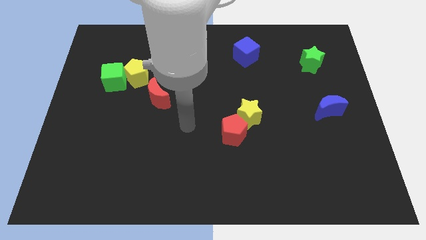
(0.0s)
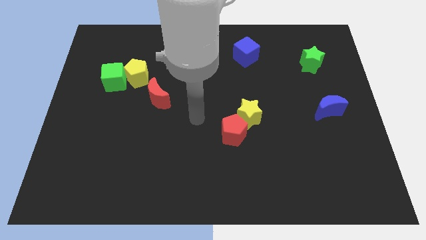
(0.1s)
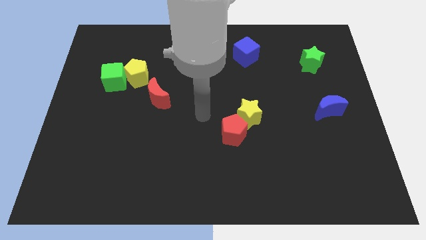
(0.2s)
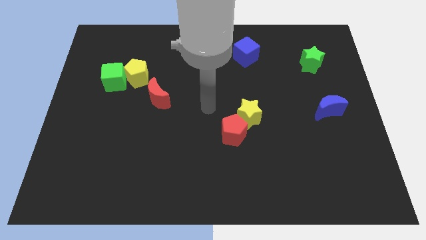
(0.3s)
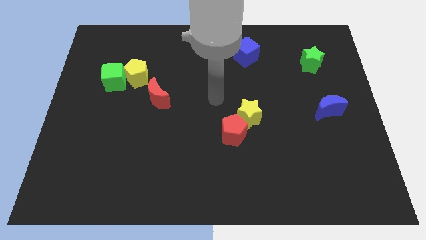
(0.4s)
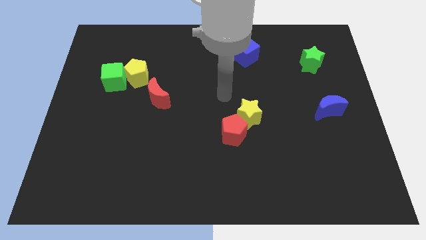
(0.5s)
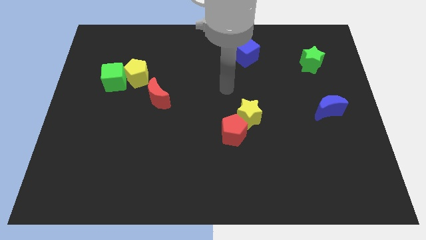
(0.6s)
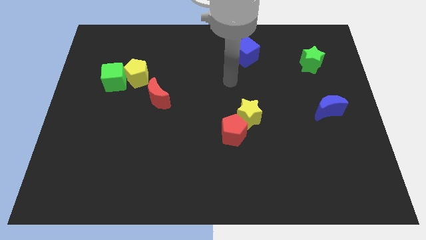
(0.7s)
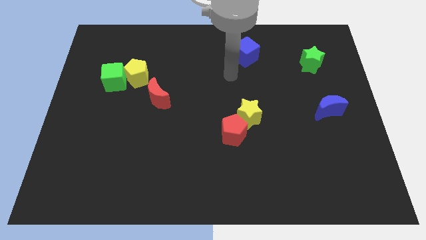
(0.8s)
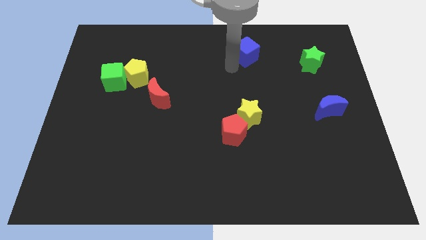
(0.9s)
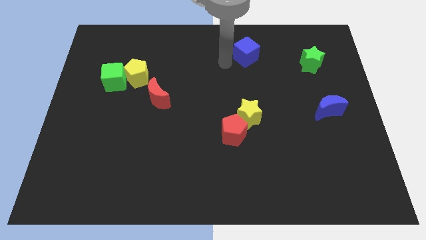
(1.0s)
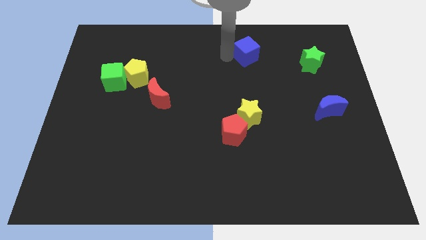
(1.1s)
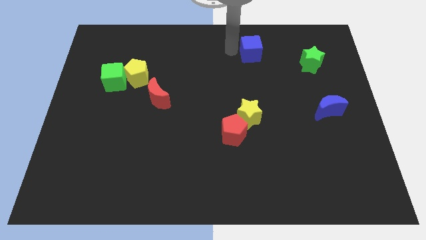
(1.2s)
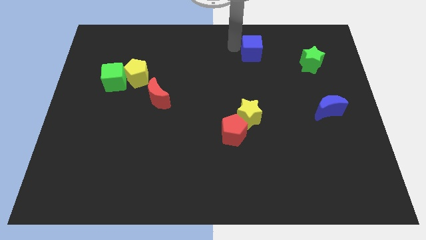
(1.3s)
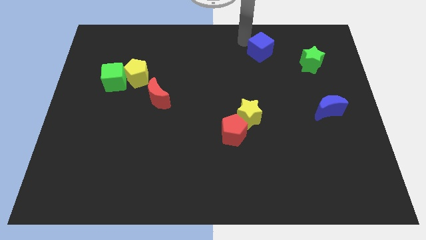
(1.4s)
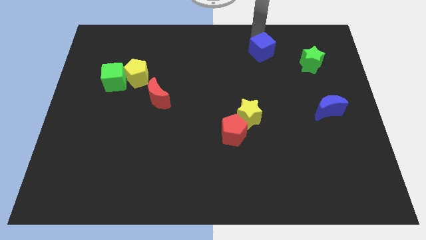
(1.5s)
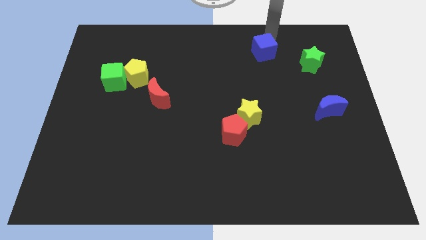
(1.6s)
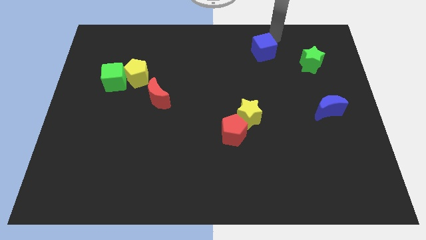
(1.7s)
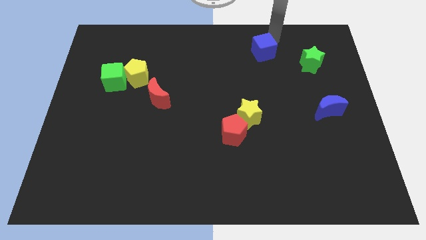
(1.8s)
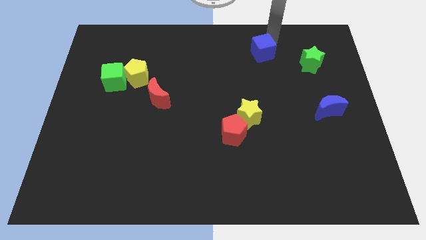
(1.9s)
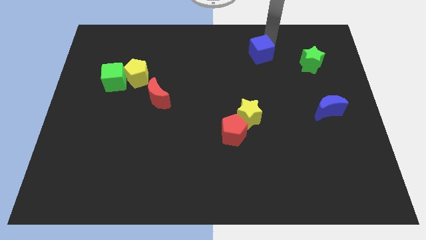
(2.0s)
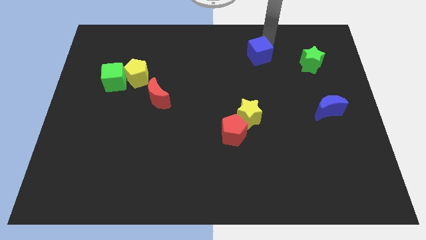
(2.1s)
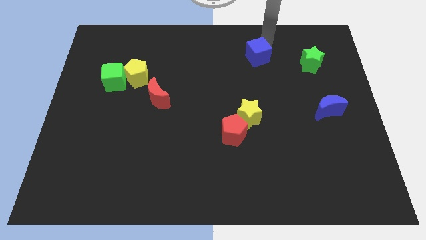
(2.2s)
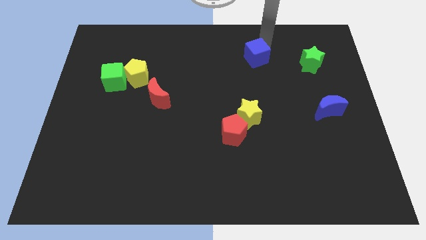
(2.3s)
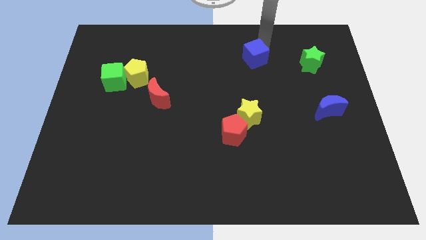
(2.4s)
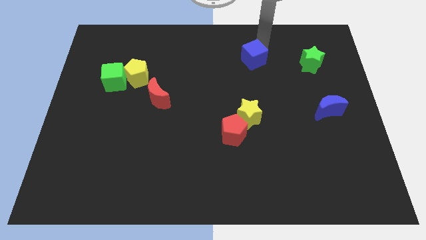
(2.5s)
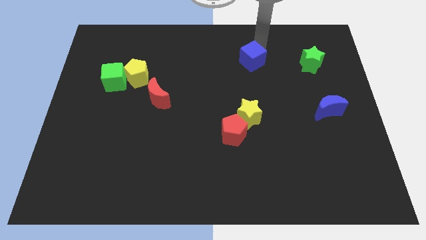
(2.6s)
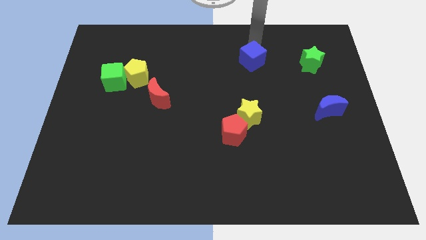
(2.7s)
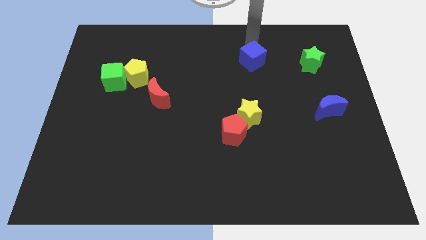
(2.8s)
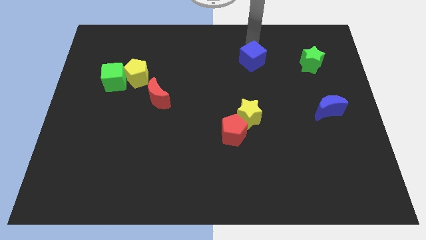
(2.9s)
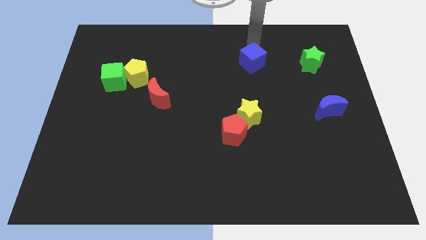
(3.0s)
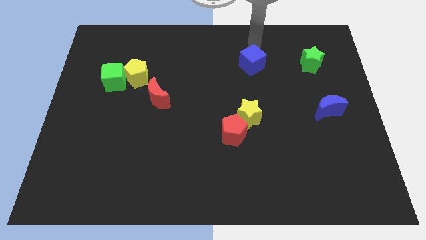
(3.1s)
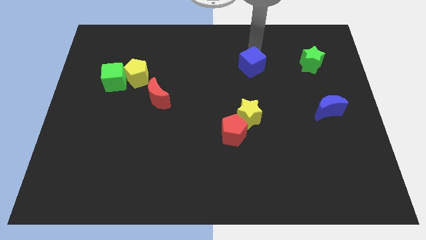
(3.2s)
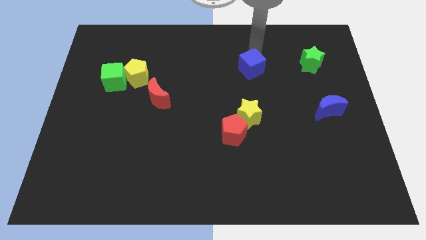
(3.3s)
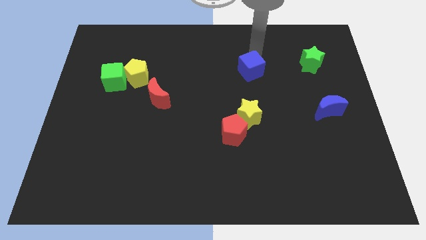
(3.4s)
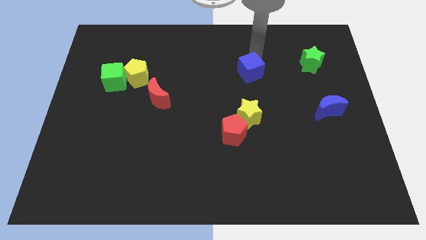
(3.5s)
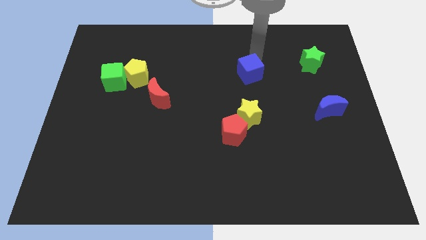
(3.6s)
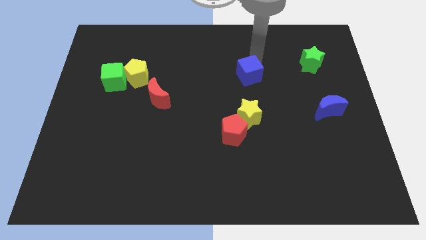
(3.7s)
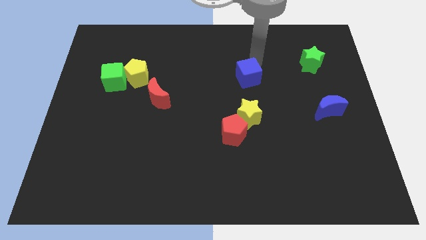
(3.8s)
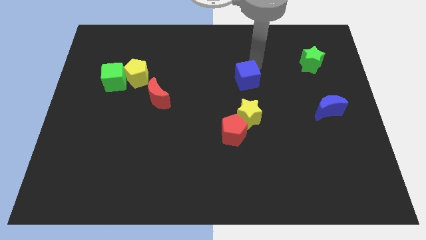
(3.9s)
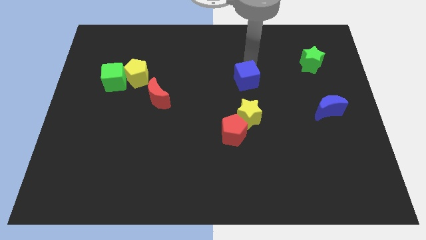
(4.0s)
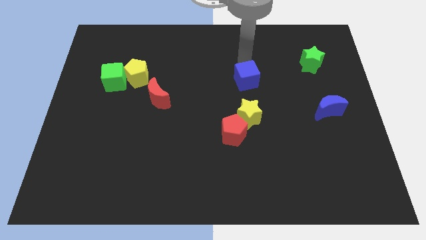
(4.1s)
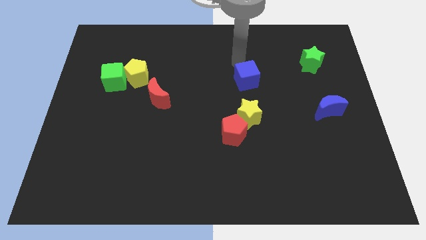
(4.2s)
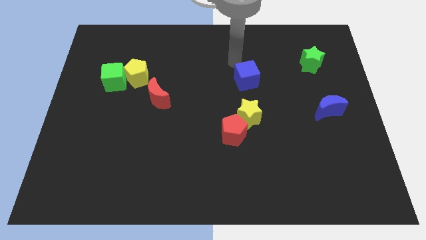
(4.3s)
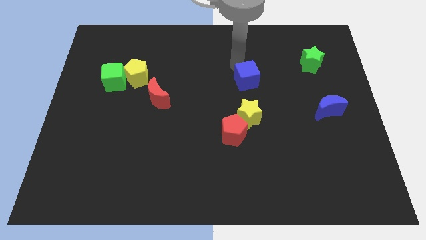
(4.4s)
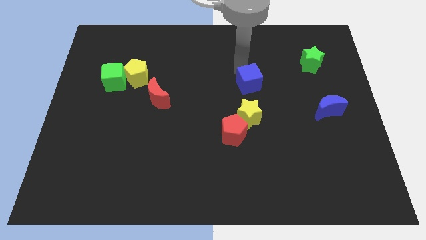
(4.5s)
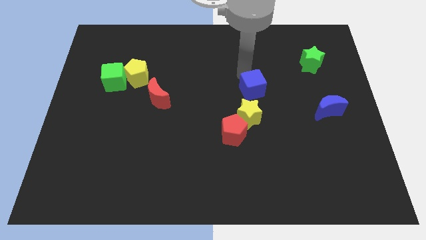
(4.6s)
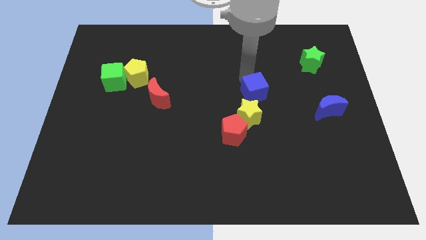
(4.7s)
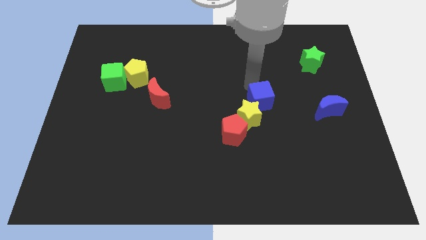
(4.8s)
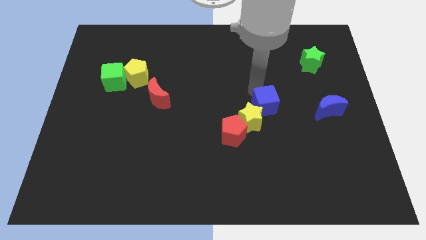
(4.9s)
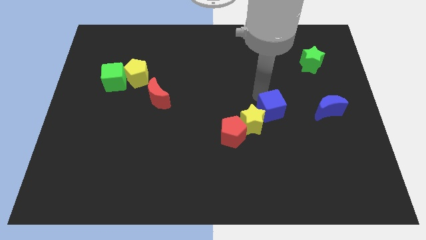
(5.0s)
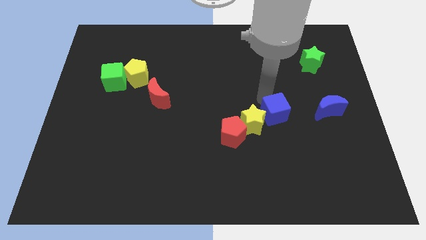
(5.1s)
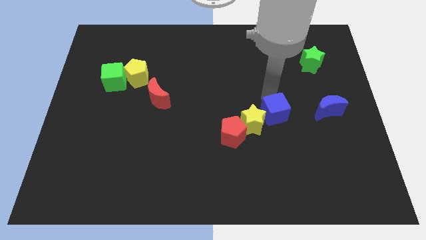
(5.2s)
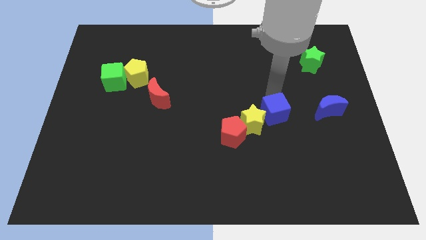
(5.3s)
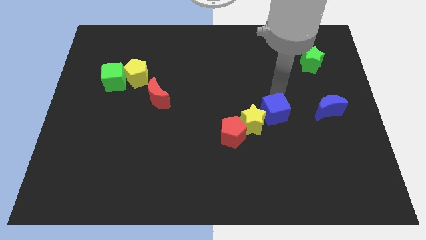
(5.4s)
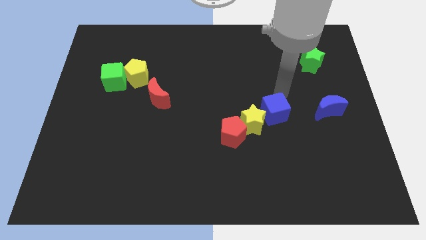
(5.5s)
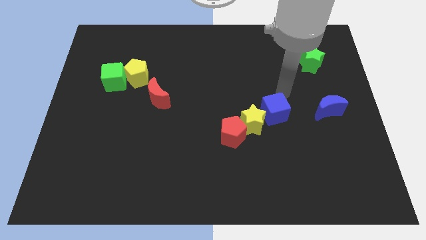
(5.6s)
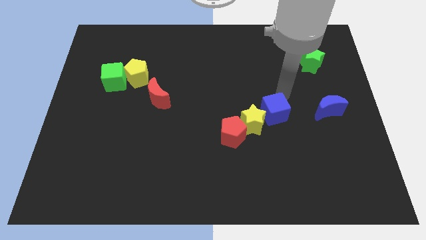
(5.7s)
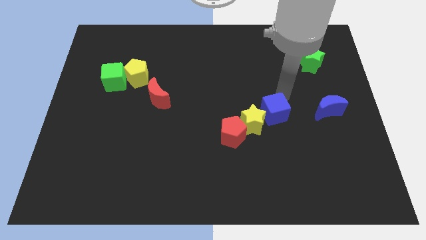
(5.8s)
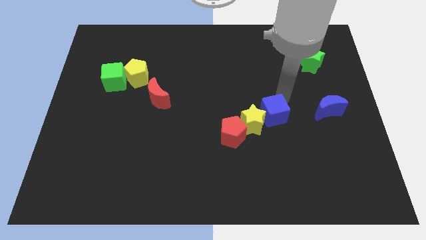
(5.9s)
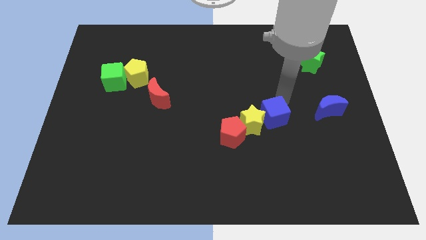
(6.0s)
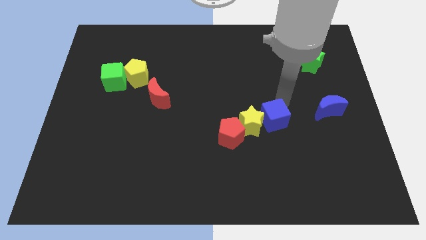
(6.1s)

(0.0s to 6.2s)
move the blue cube down

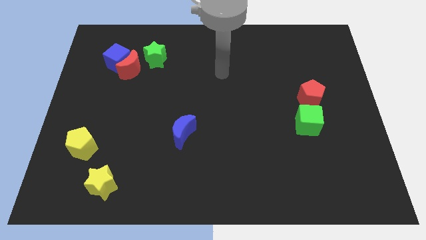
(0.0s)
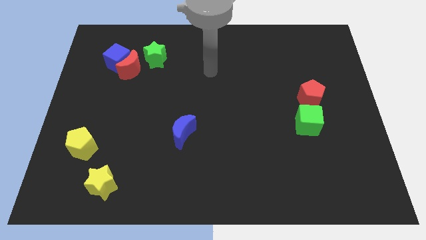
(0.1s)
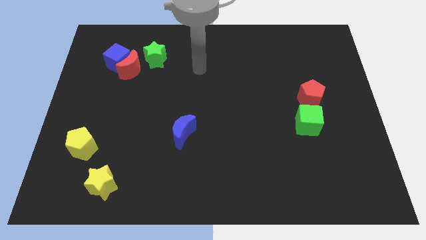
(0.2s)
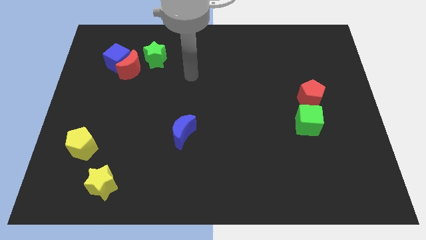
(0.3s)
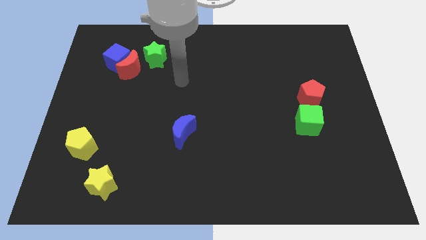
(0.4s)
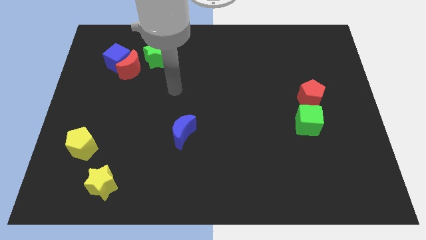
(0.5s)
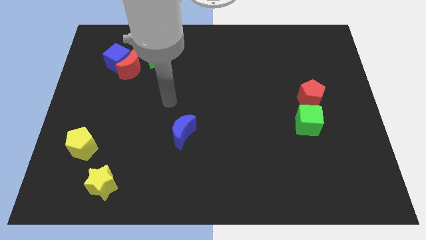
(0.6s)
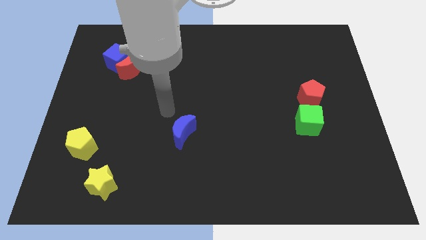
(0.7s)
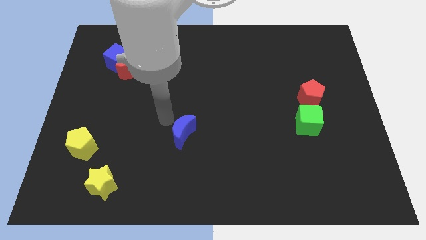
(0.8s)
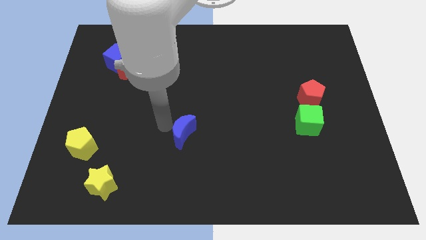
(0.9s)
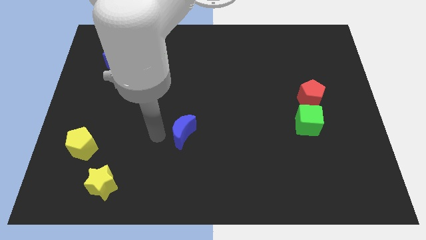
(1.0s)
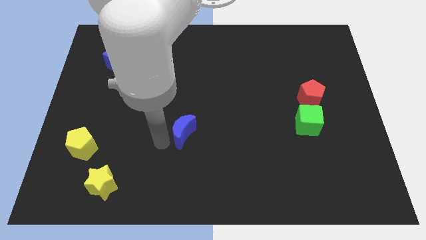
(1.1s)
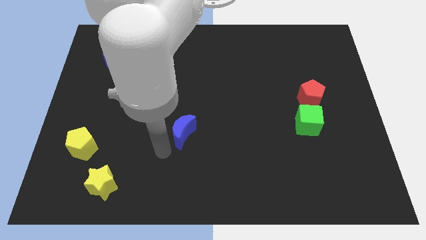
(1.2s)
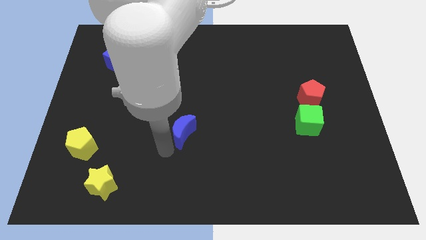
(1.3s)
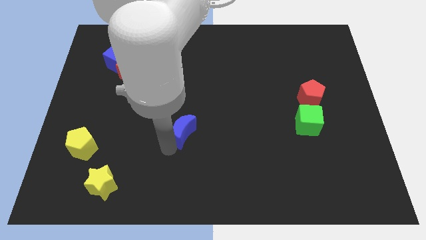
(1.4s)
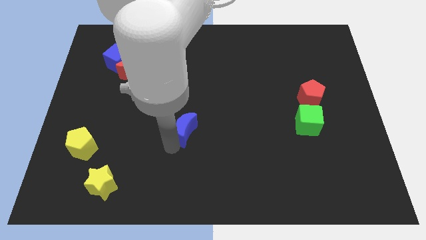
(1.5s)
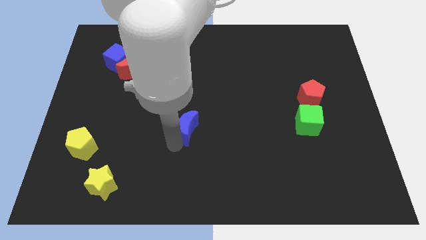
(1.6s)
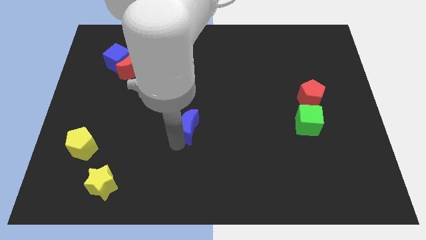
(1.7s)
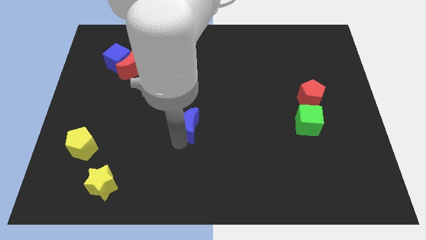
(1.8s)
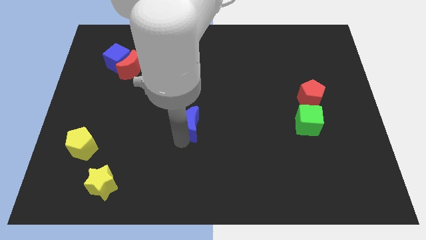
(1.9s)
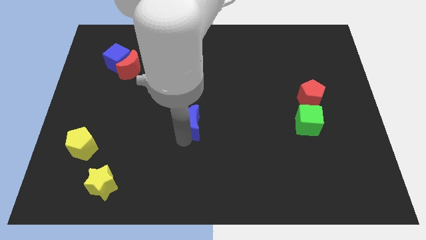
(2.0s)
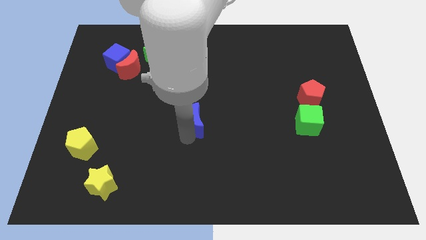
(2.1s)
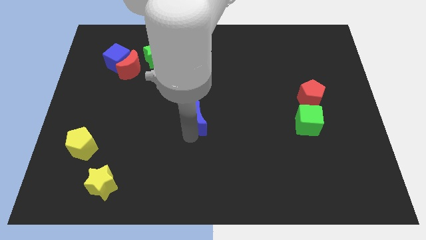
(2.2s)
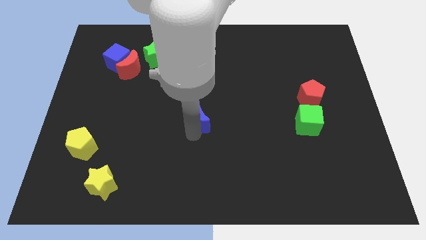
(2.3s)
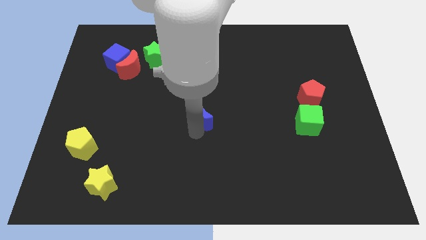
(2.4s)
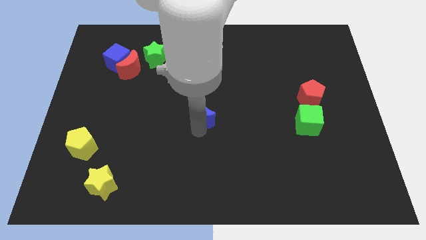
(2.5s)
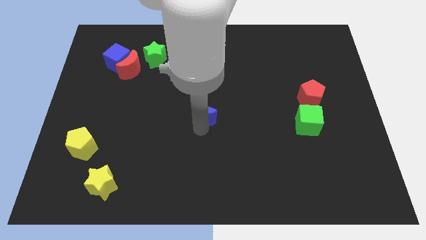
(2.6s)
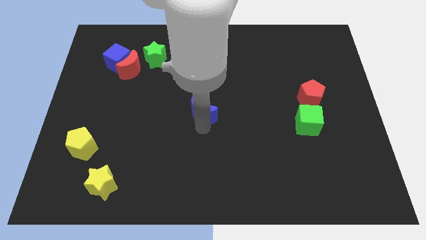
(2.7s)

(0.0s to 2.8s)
slide the blue moon upwards and right diagonally a little
